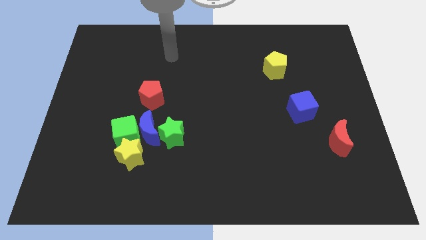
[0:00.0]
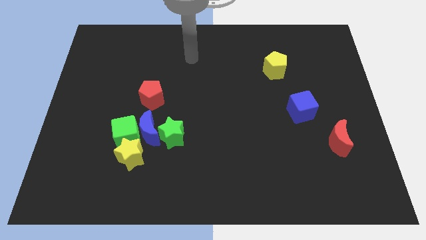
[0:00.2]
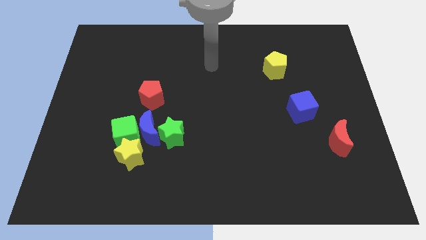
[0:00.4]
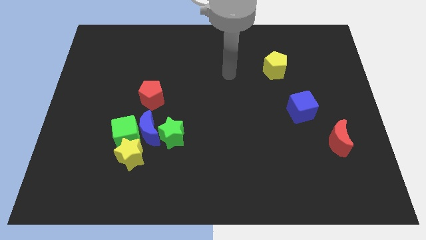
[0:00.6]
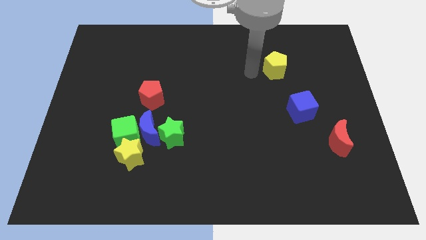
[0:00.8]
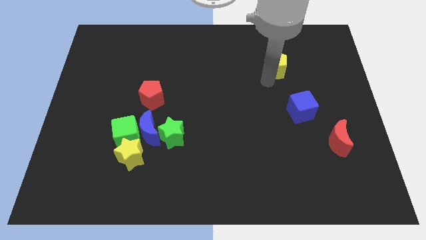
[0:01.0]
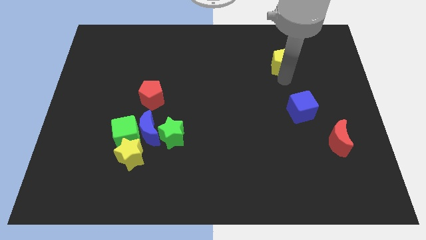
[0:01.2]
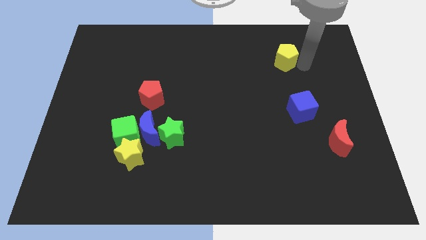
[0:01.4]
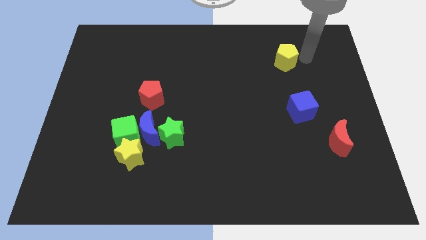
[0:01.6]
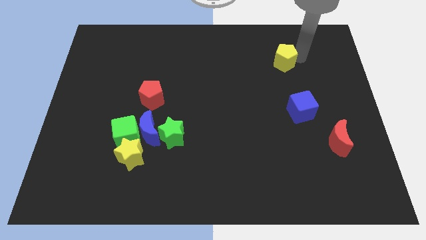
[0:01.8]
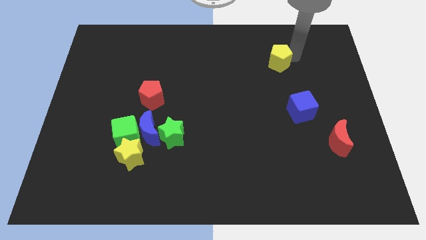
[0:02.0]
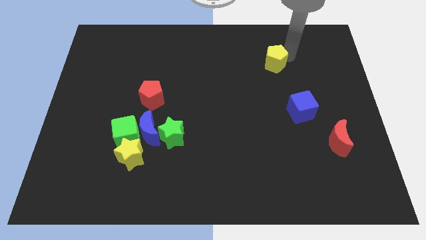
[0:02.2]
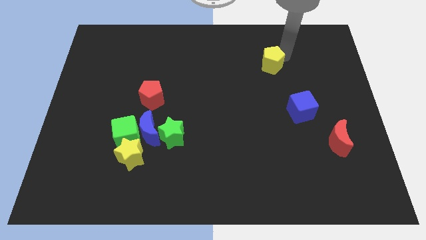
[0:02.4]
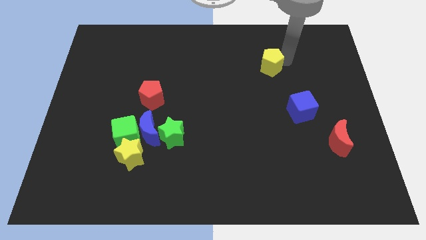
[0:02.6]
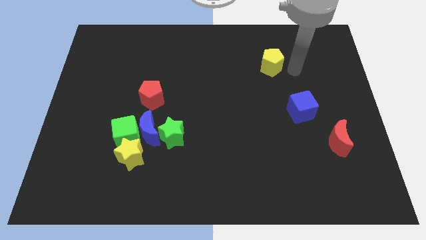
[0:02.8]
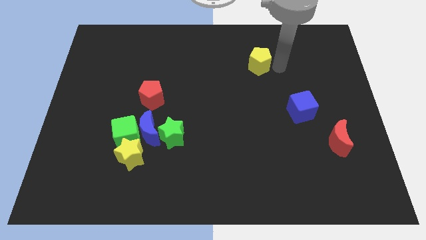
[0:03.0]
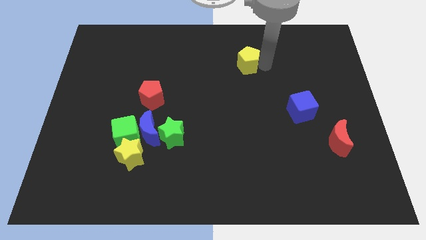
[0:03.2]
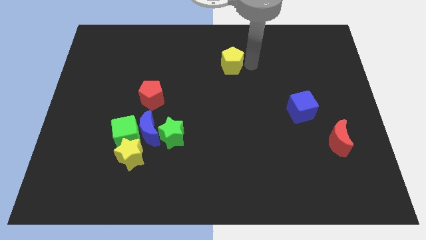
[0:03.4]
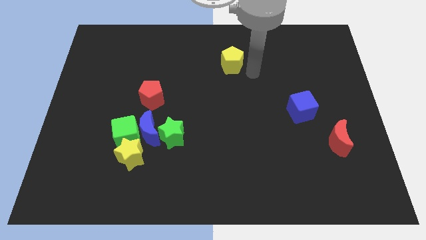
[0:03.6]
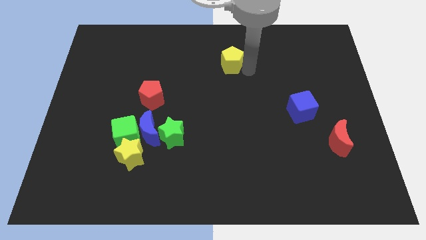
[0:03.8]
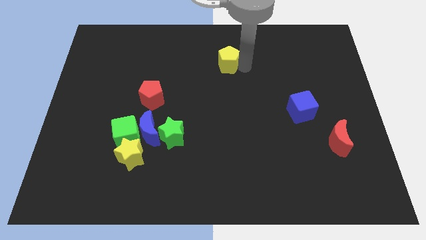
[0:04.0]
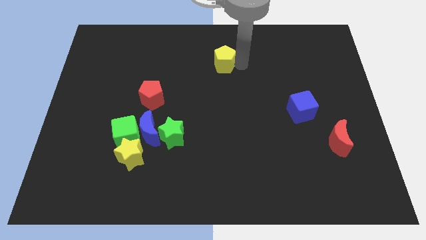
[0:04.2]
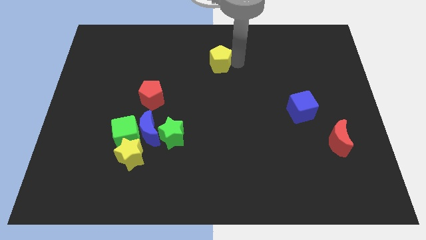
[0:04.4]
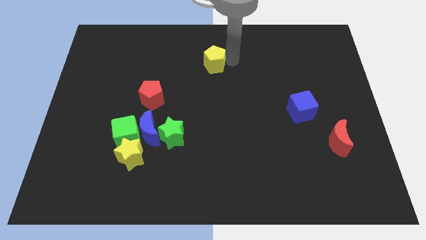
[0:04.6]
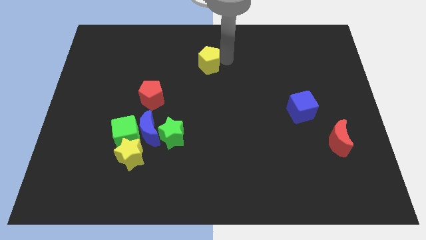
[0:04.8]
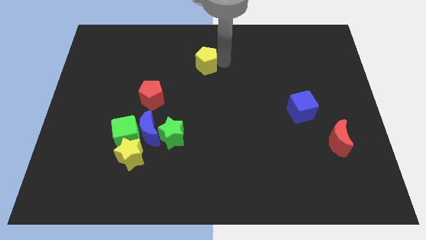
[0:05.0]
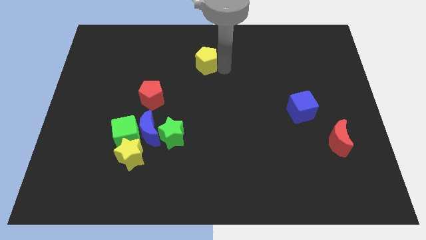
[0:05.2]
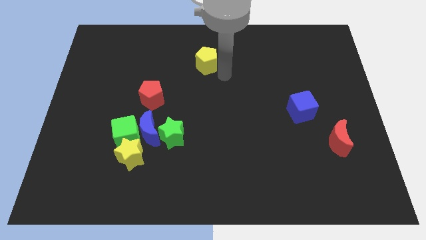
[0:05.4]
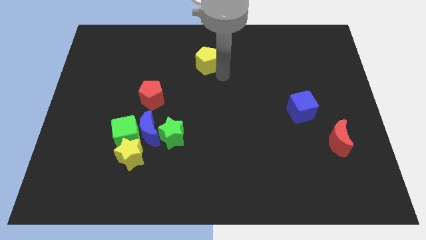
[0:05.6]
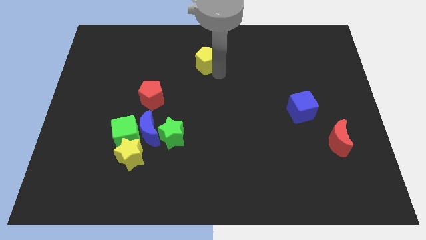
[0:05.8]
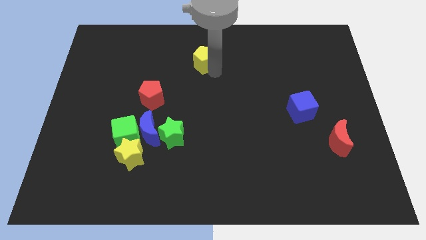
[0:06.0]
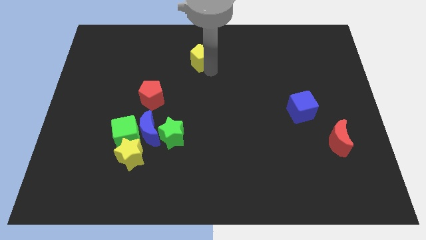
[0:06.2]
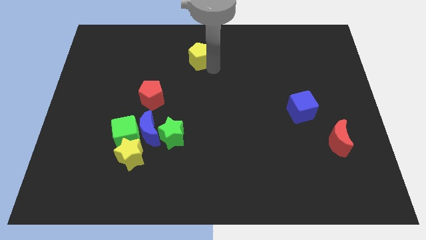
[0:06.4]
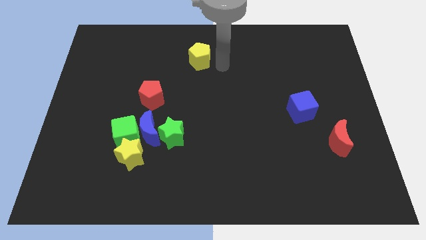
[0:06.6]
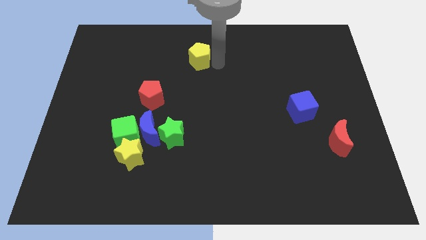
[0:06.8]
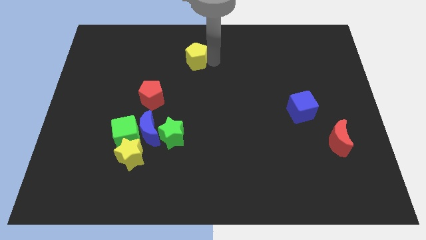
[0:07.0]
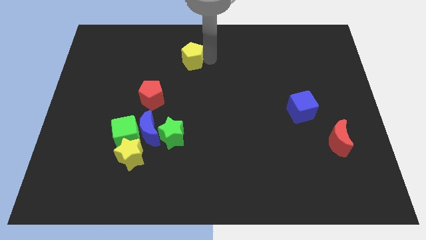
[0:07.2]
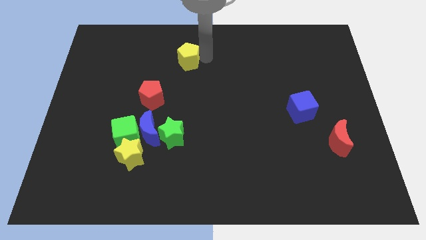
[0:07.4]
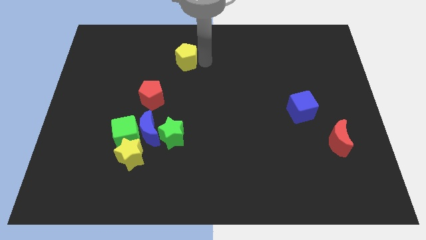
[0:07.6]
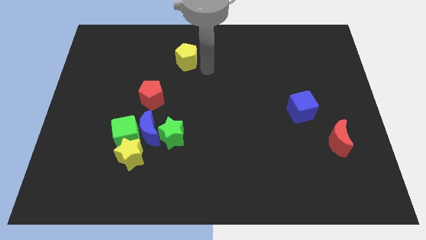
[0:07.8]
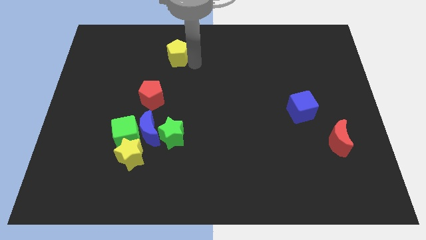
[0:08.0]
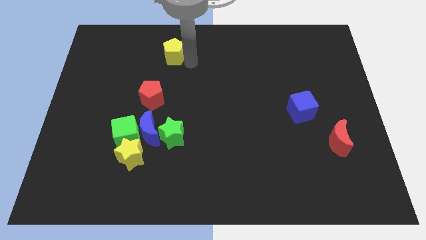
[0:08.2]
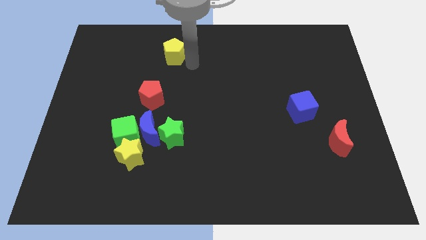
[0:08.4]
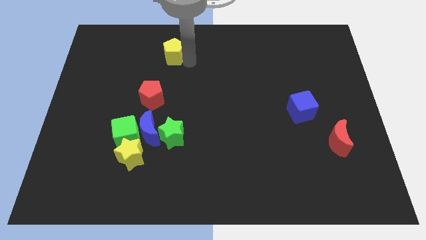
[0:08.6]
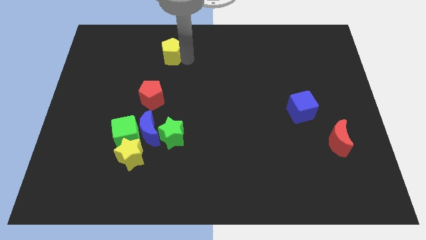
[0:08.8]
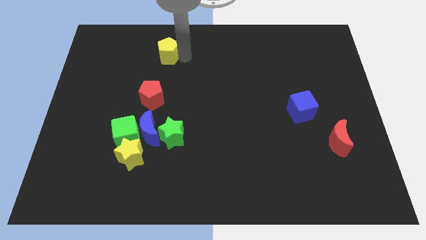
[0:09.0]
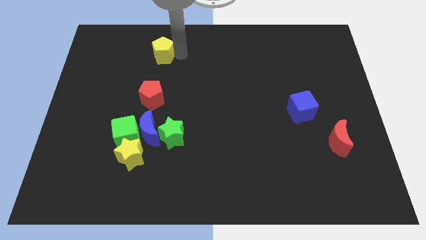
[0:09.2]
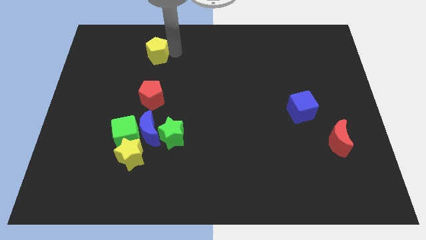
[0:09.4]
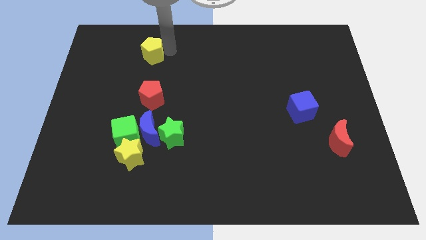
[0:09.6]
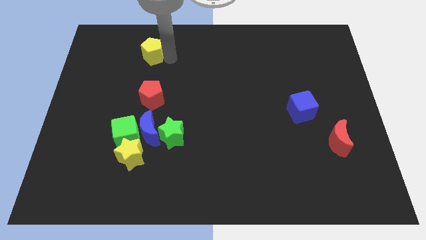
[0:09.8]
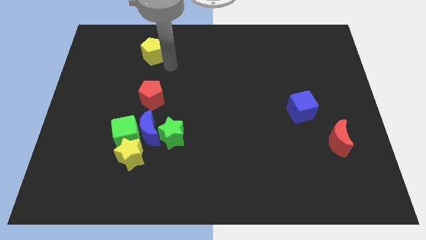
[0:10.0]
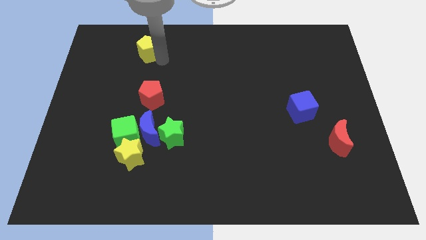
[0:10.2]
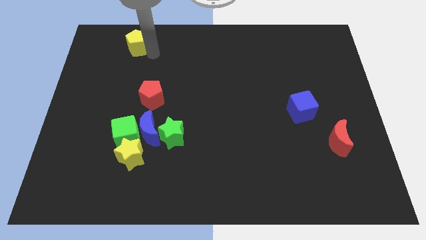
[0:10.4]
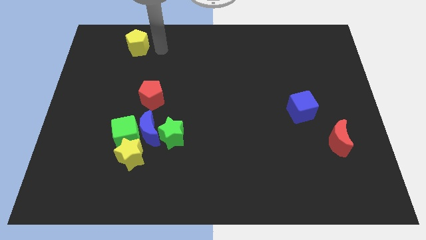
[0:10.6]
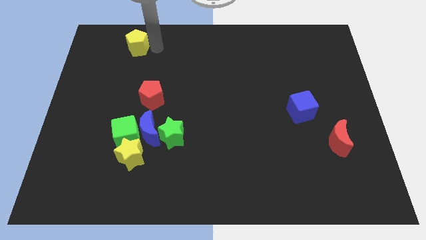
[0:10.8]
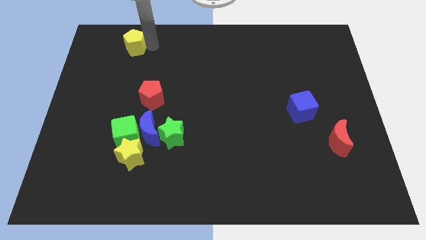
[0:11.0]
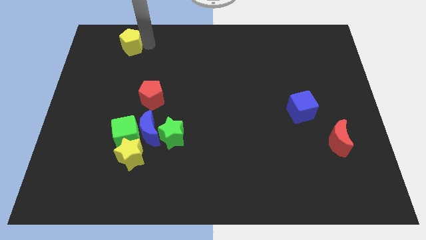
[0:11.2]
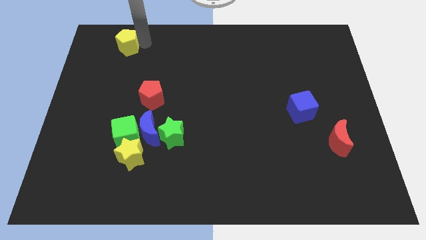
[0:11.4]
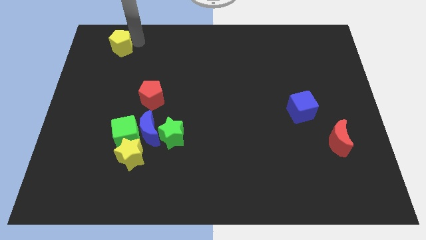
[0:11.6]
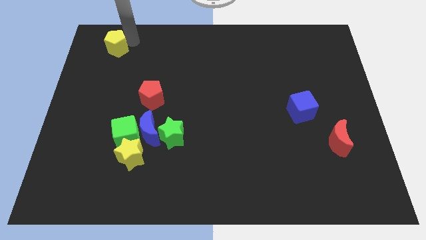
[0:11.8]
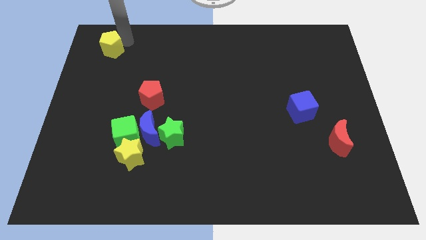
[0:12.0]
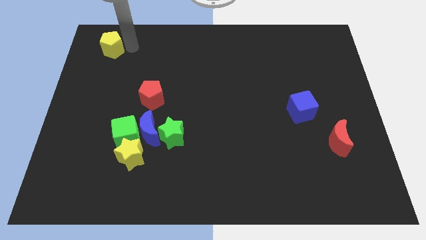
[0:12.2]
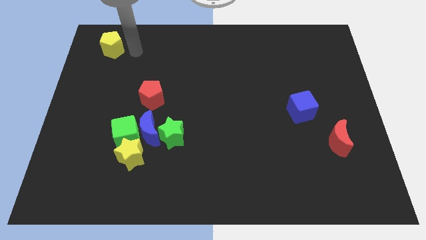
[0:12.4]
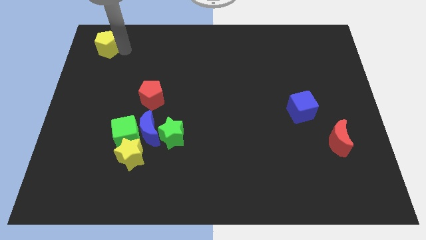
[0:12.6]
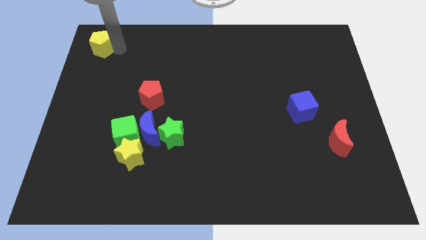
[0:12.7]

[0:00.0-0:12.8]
put the yellow pentagon to the top left corner
